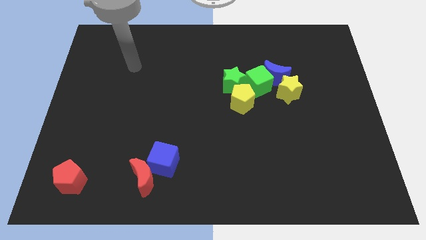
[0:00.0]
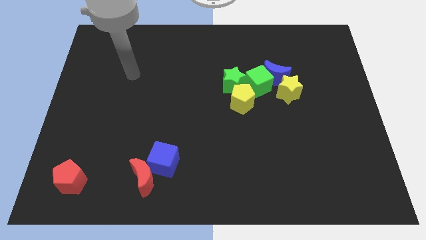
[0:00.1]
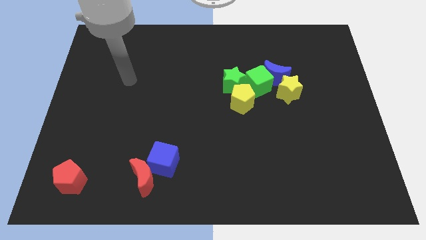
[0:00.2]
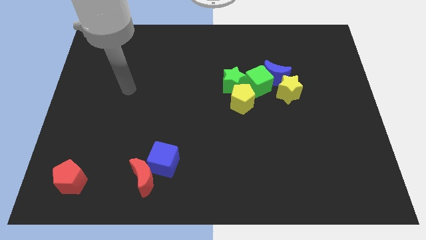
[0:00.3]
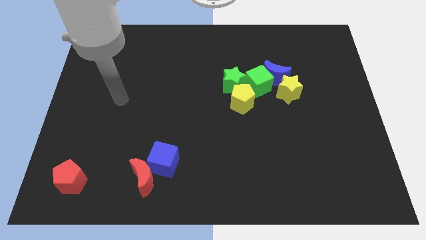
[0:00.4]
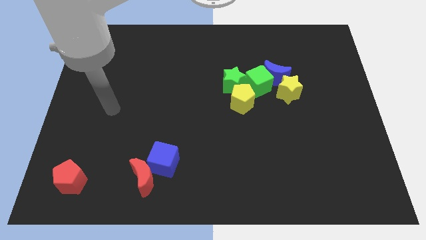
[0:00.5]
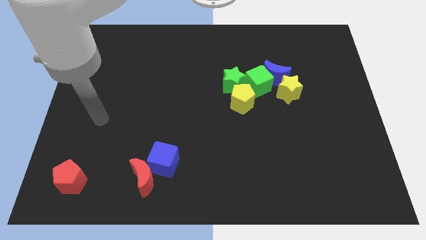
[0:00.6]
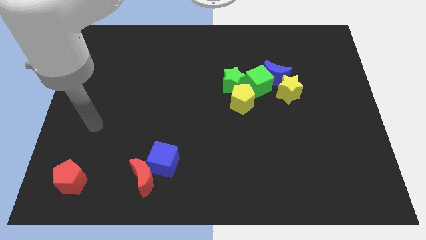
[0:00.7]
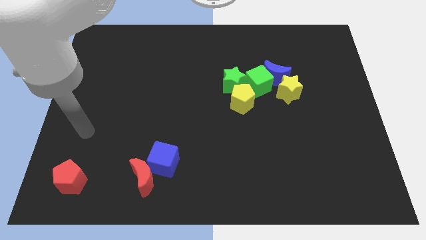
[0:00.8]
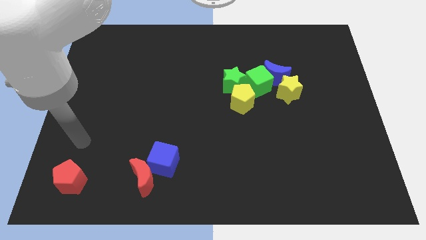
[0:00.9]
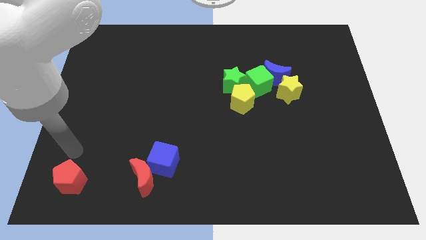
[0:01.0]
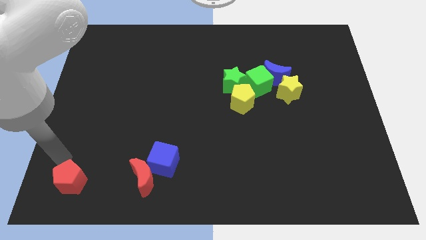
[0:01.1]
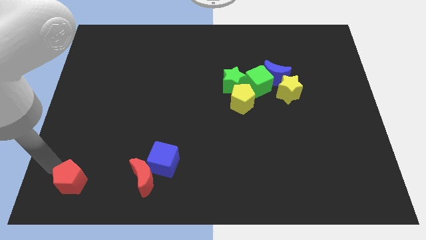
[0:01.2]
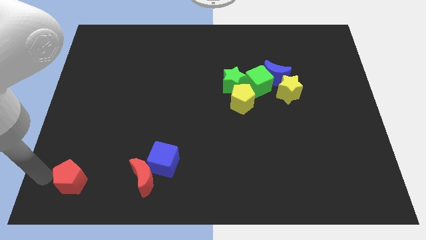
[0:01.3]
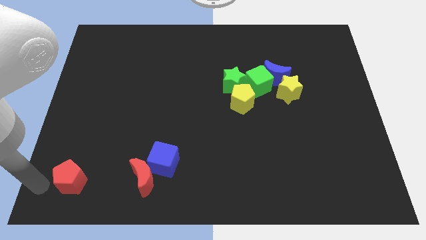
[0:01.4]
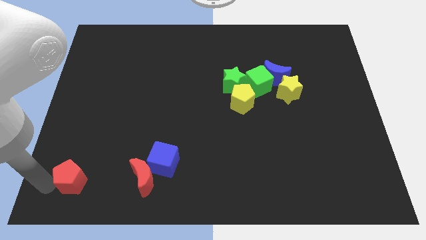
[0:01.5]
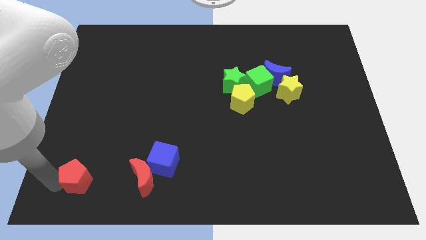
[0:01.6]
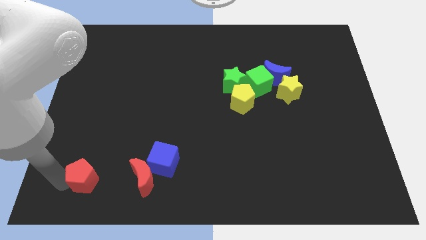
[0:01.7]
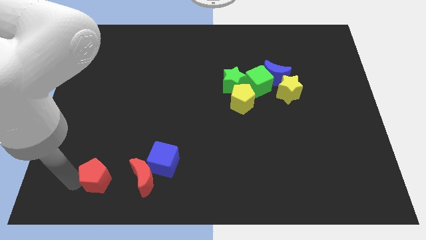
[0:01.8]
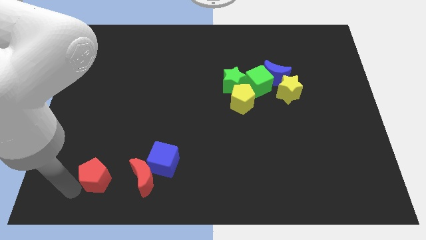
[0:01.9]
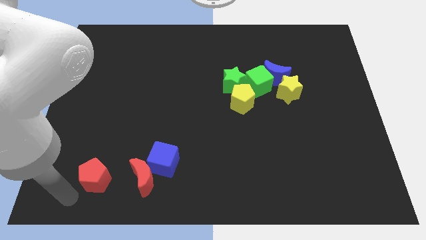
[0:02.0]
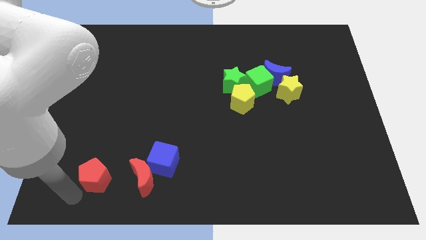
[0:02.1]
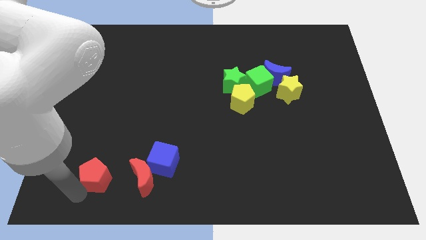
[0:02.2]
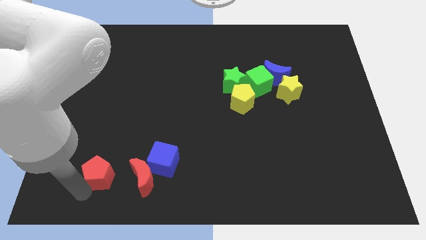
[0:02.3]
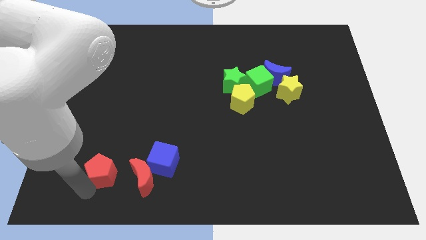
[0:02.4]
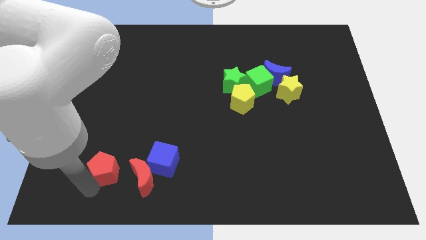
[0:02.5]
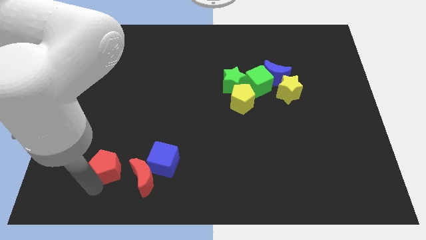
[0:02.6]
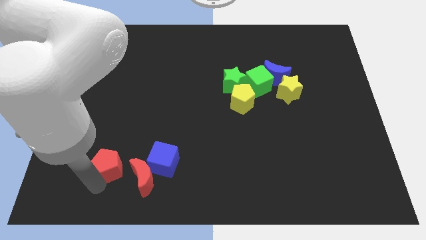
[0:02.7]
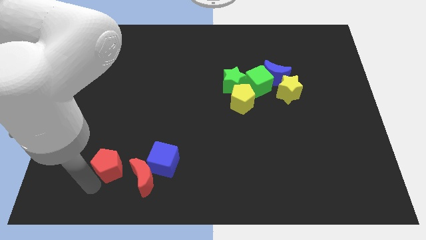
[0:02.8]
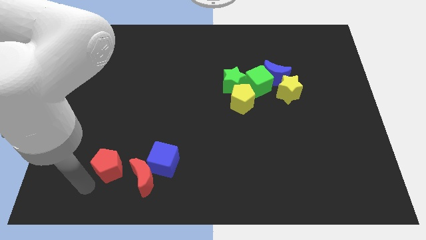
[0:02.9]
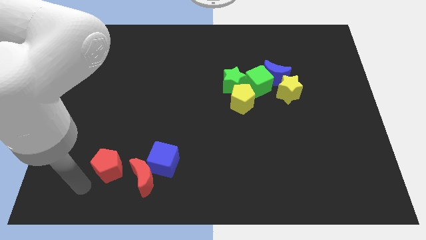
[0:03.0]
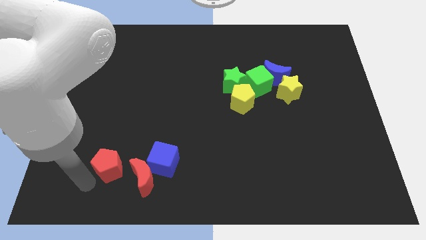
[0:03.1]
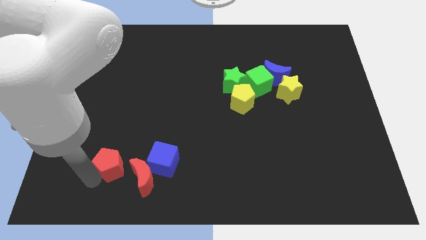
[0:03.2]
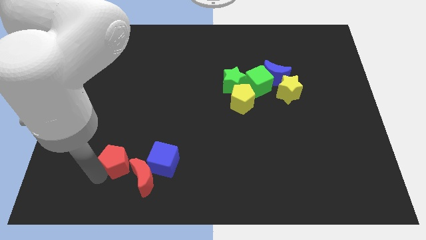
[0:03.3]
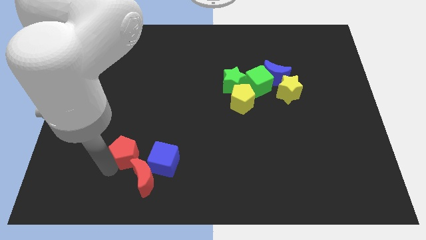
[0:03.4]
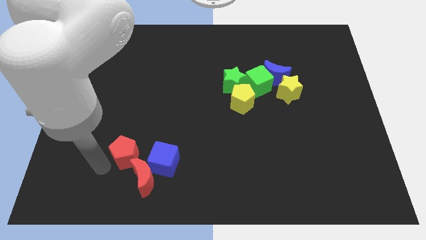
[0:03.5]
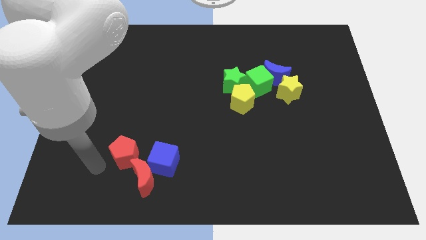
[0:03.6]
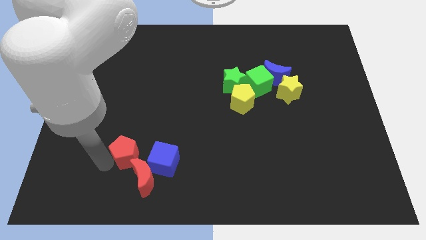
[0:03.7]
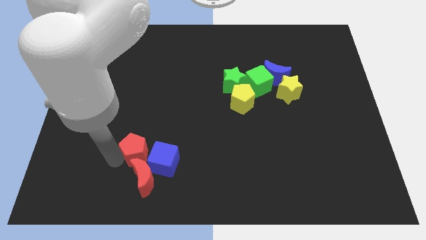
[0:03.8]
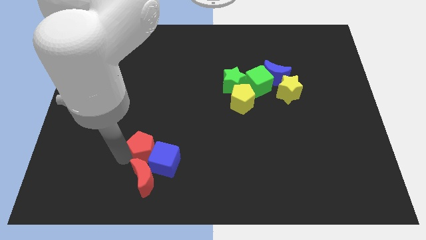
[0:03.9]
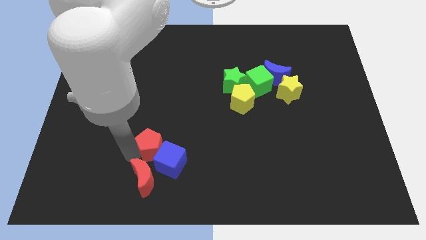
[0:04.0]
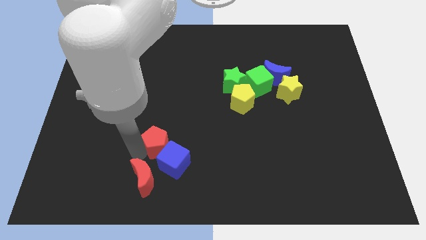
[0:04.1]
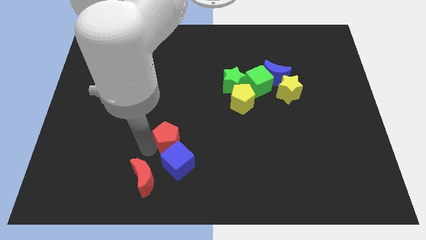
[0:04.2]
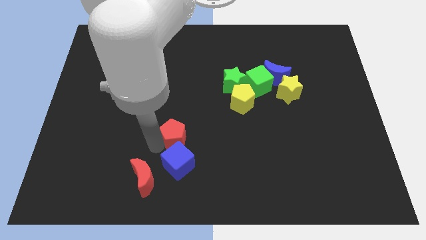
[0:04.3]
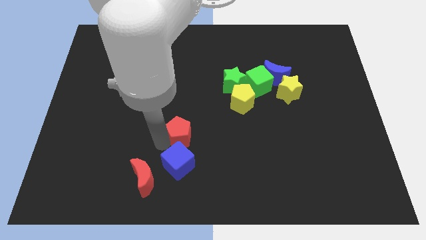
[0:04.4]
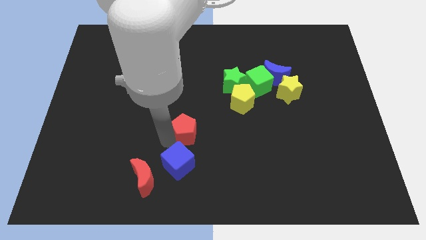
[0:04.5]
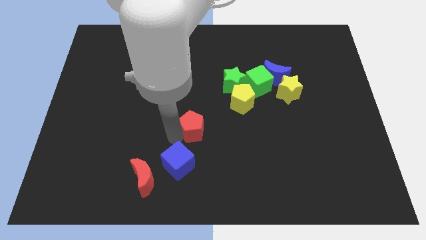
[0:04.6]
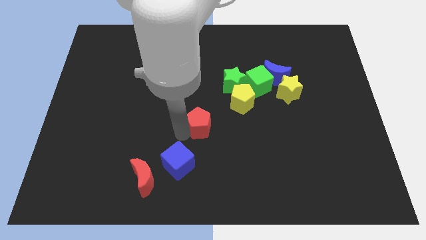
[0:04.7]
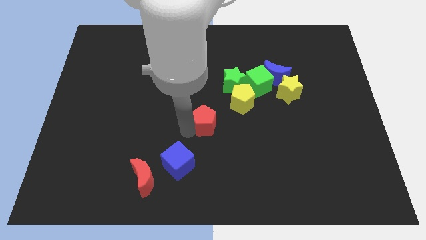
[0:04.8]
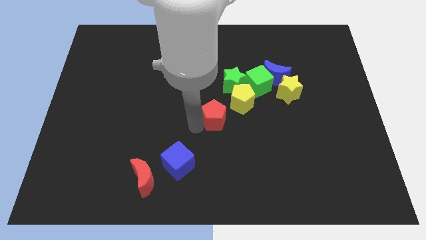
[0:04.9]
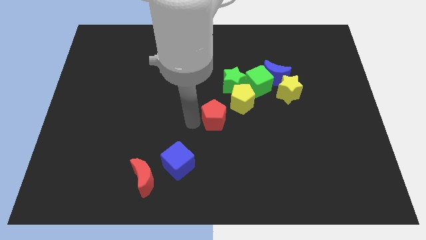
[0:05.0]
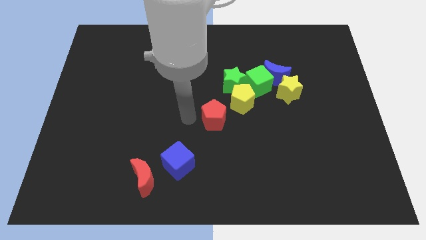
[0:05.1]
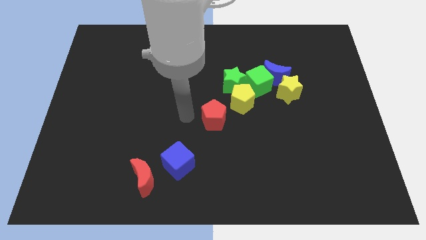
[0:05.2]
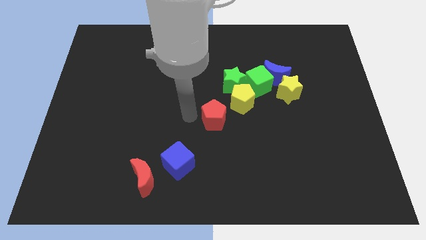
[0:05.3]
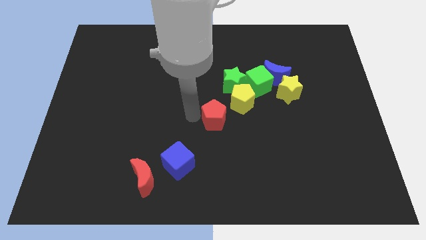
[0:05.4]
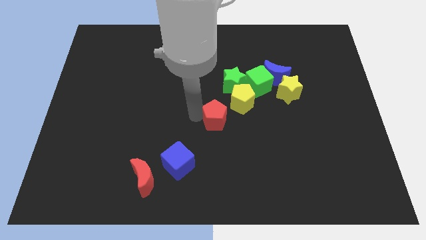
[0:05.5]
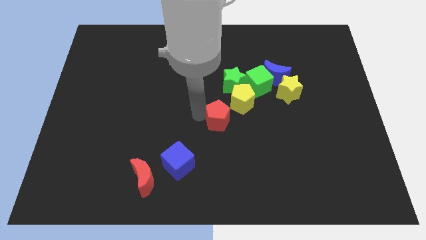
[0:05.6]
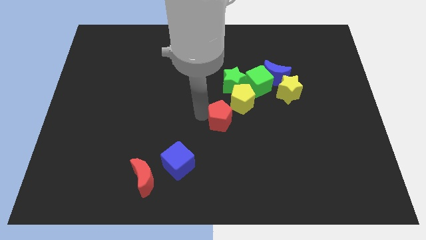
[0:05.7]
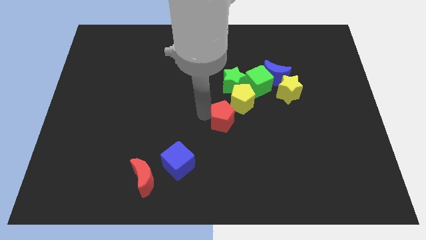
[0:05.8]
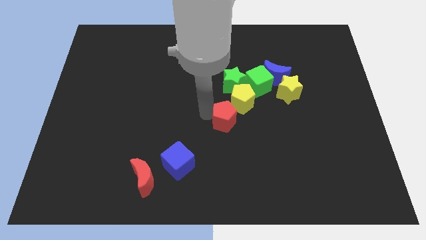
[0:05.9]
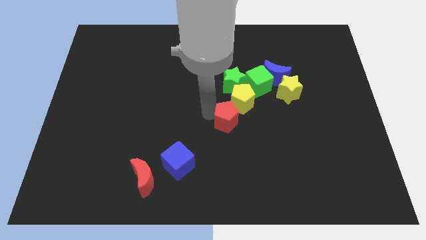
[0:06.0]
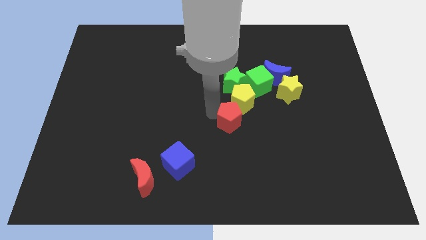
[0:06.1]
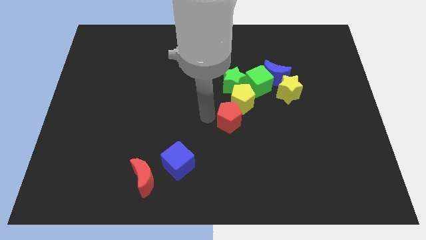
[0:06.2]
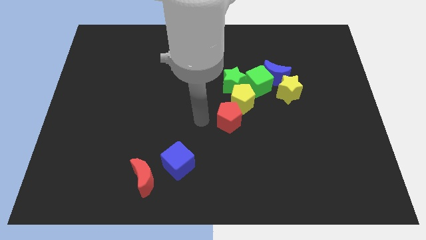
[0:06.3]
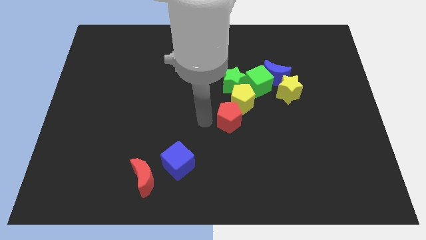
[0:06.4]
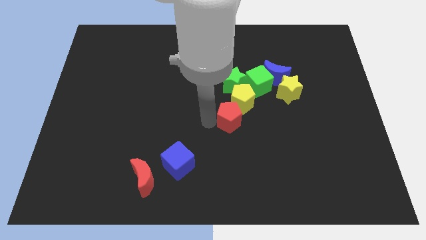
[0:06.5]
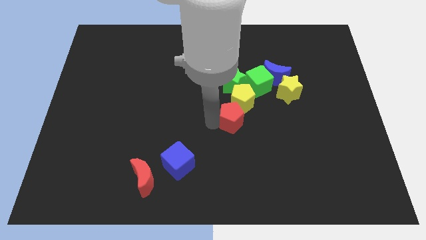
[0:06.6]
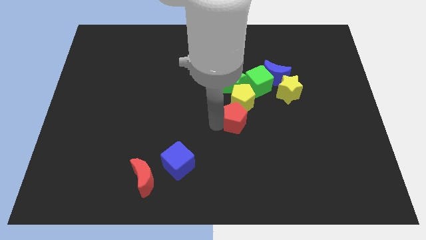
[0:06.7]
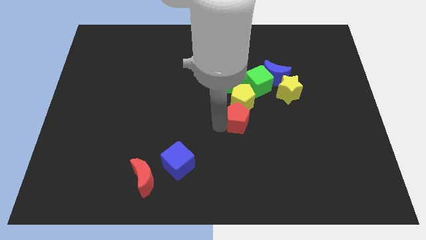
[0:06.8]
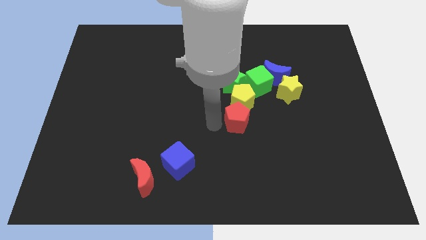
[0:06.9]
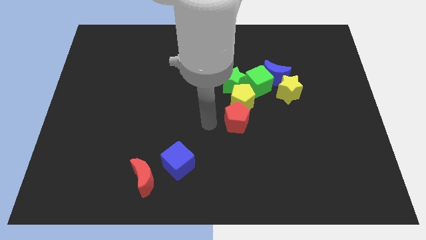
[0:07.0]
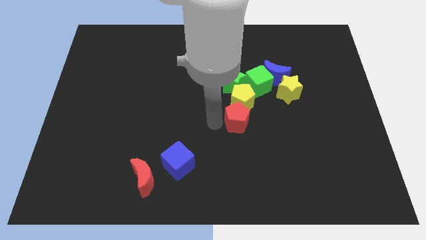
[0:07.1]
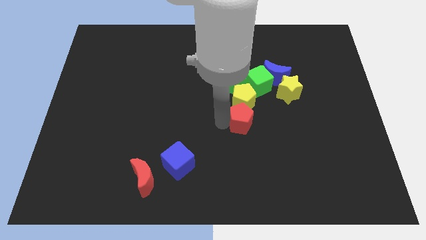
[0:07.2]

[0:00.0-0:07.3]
push the red pentagon to the bottom right side of the yellow pentagon
